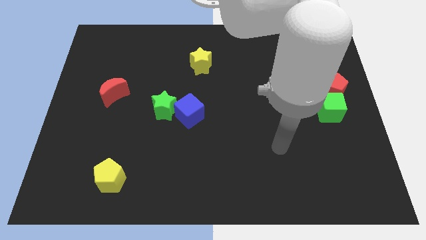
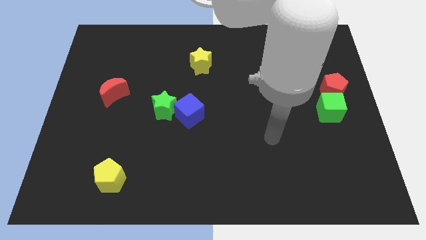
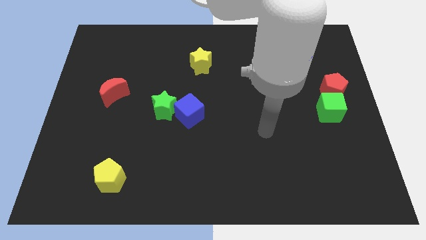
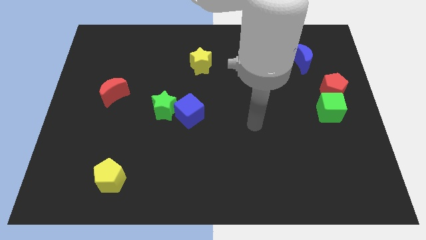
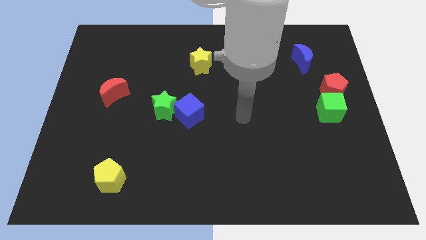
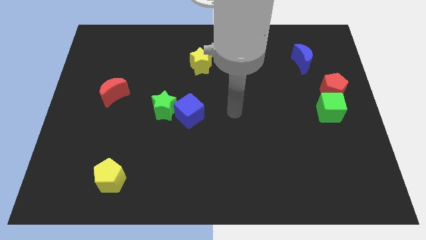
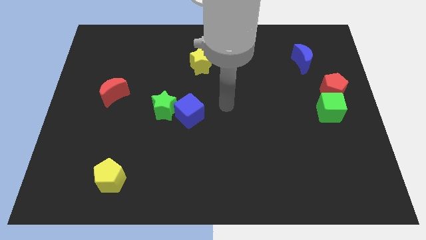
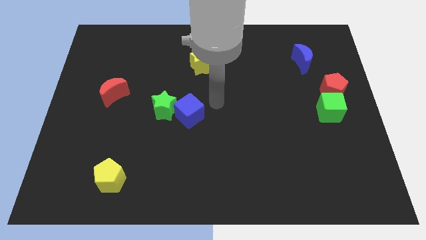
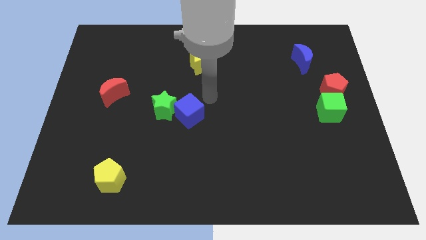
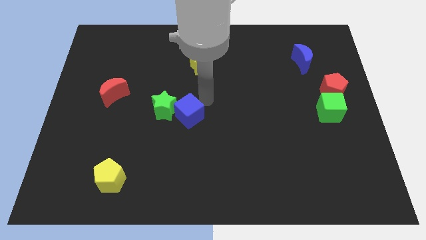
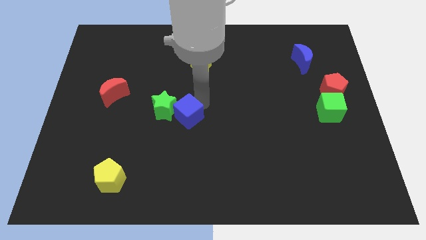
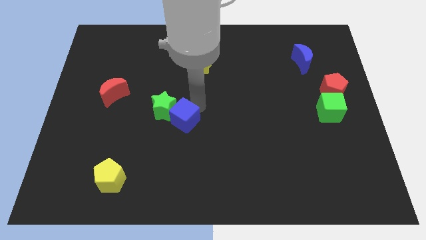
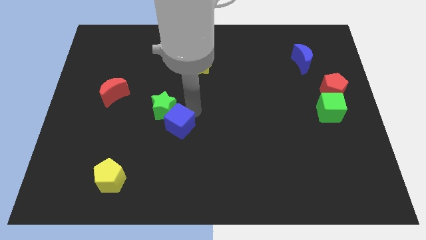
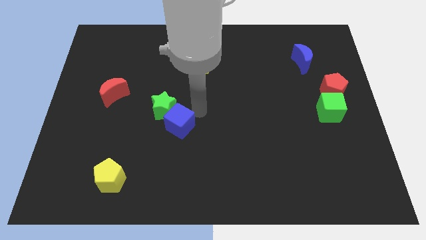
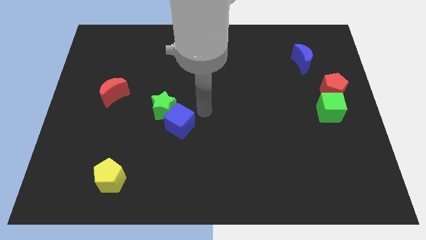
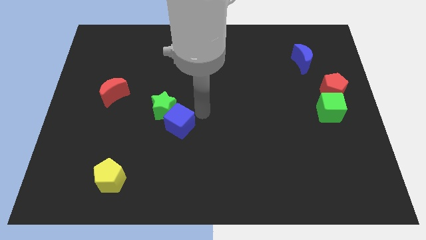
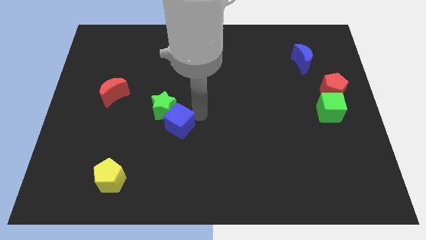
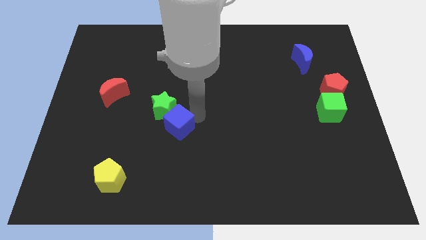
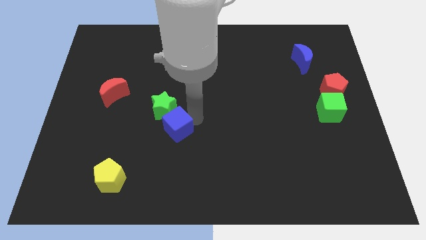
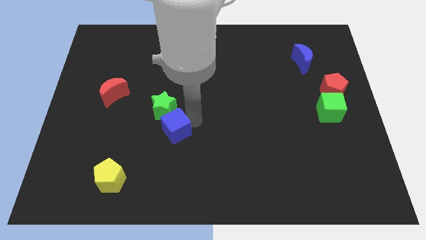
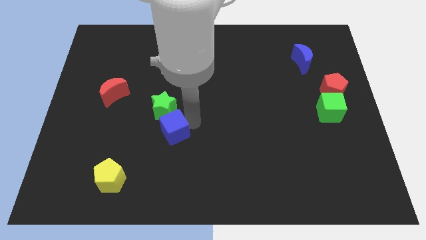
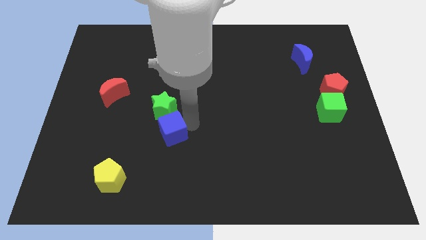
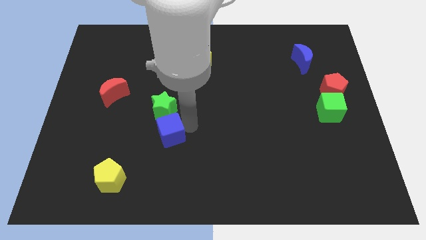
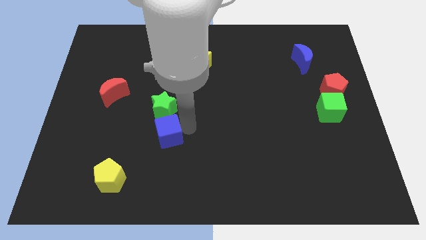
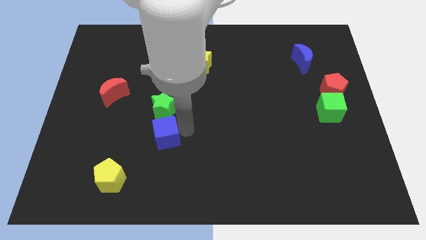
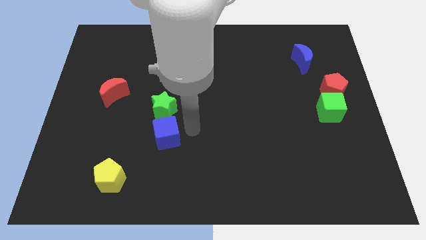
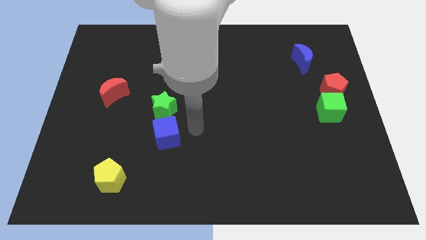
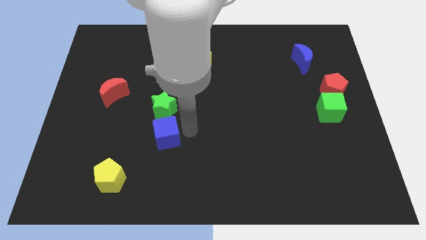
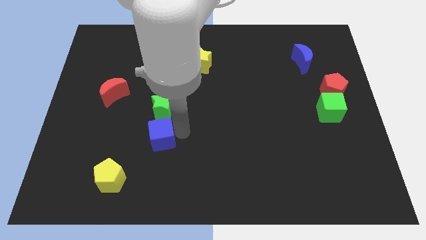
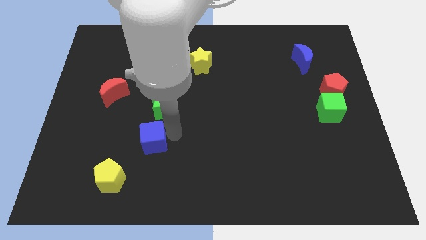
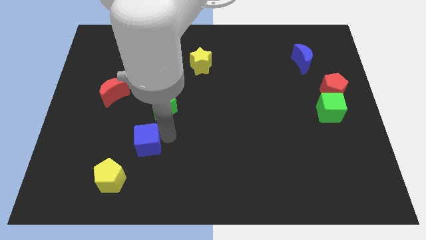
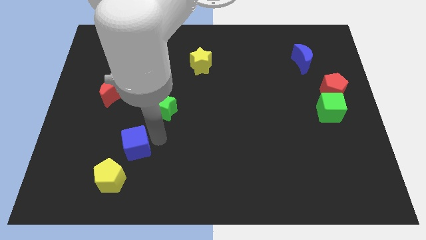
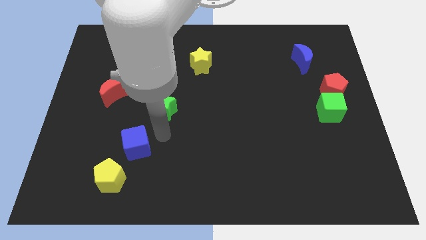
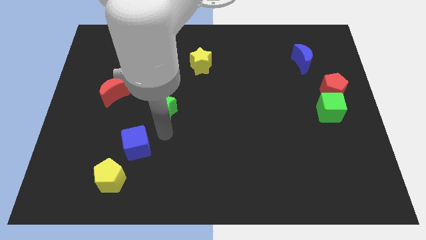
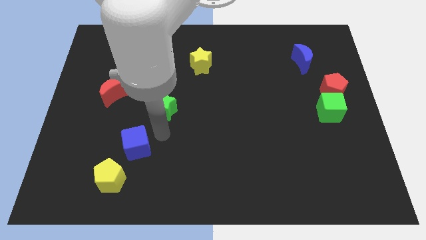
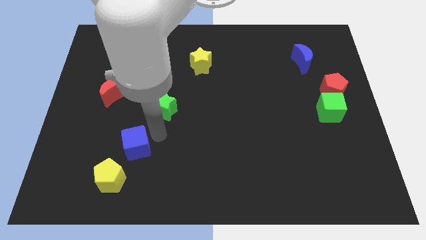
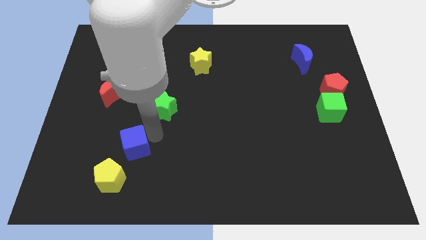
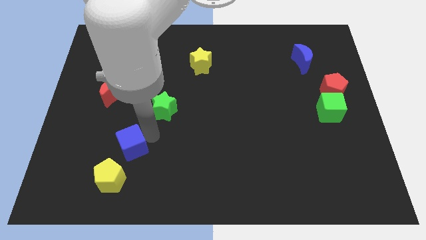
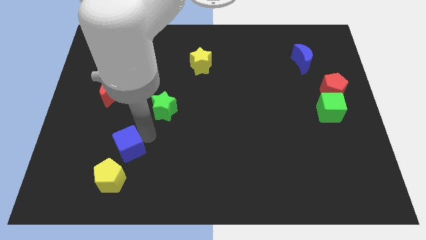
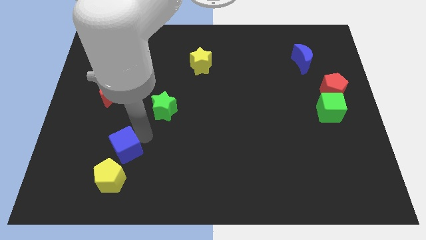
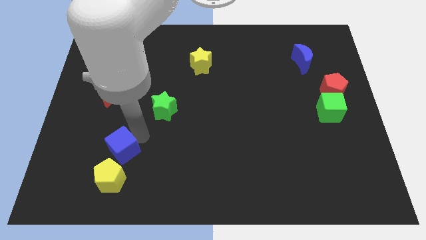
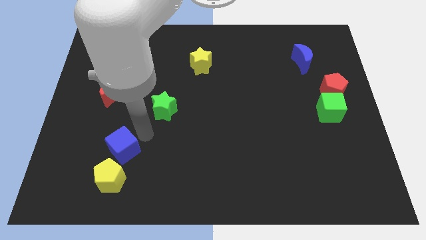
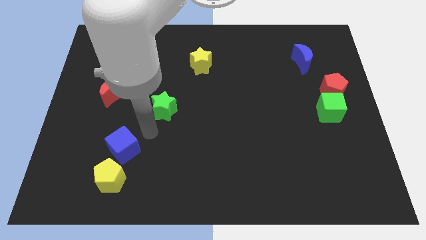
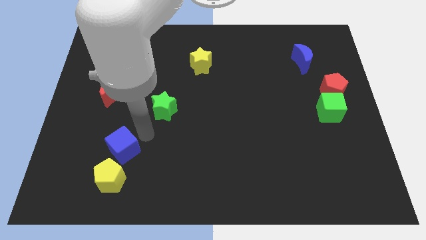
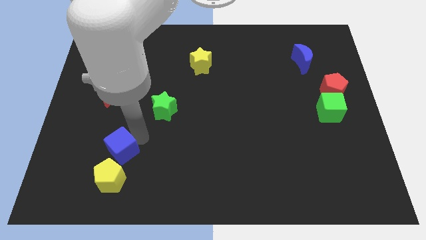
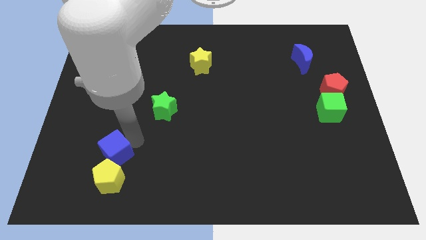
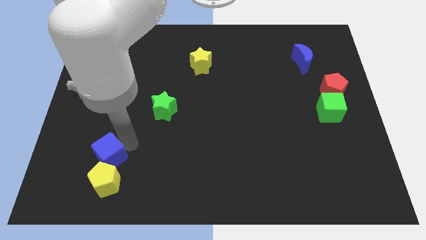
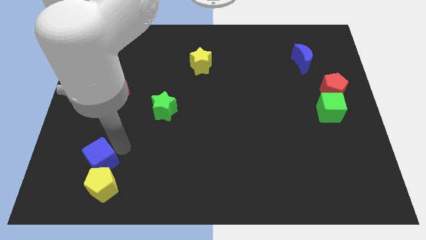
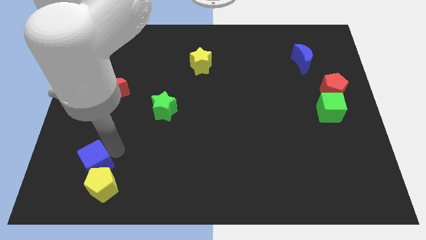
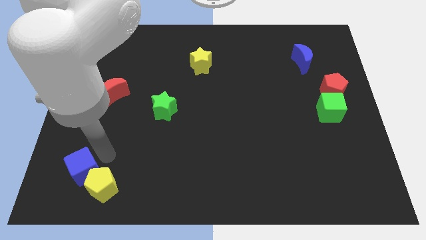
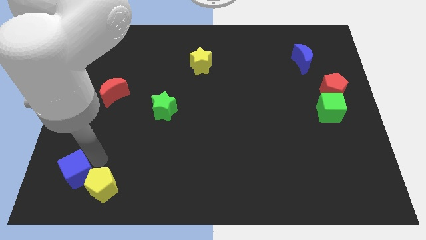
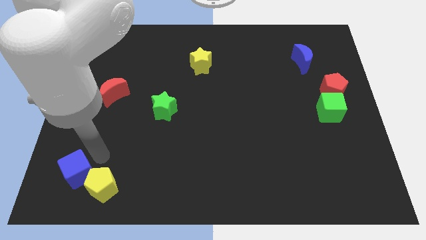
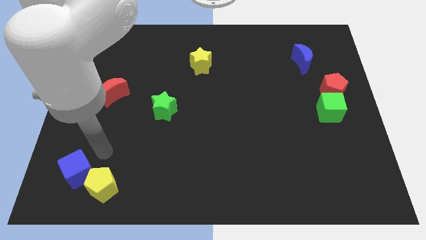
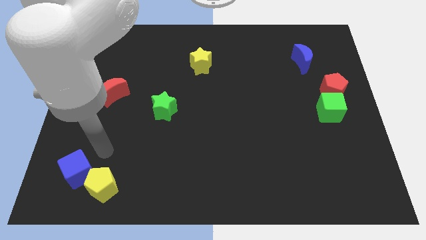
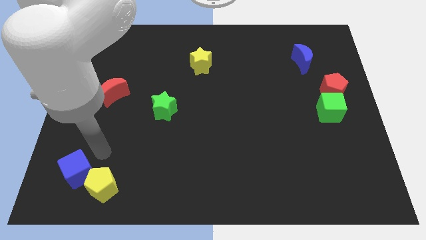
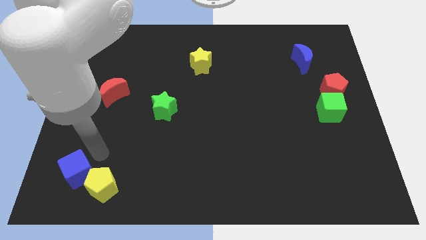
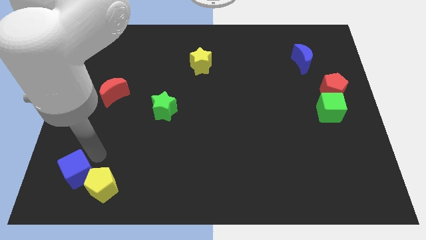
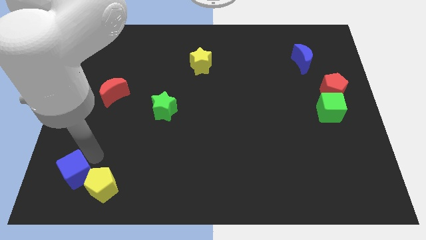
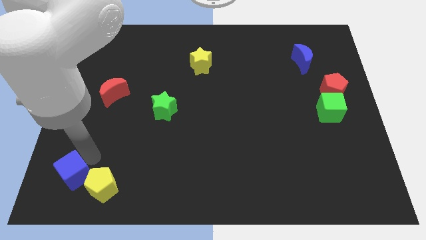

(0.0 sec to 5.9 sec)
slide the blue cube to the lower left corner
